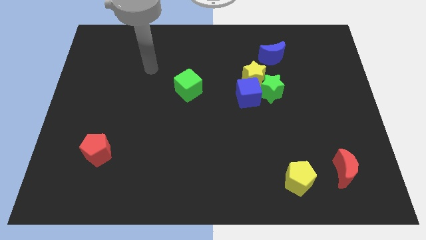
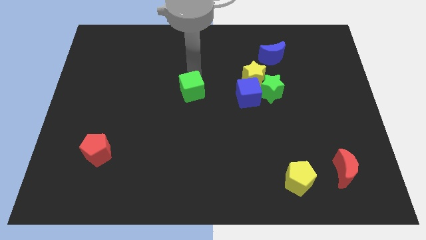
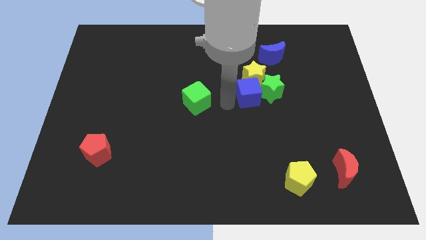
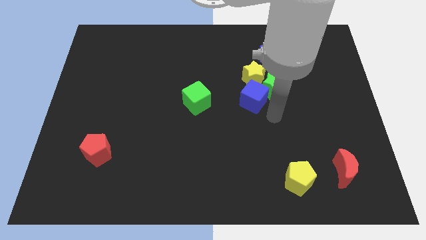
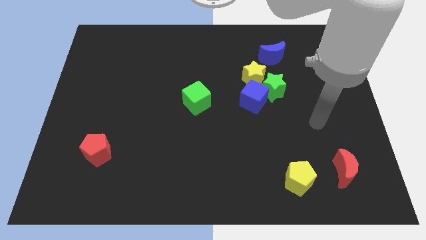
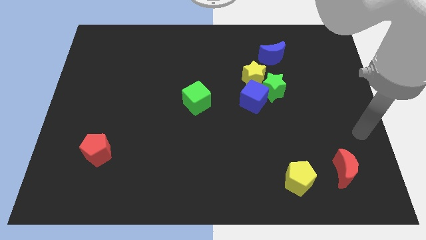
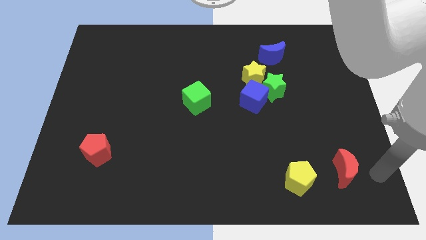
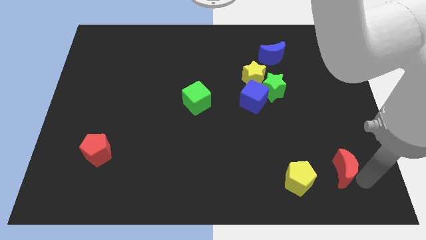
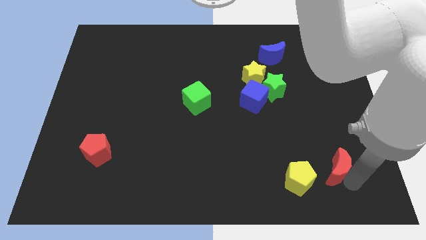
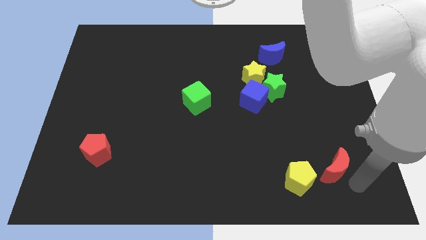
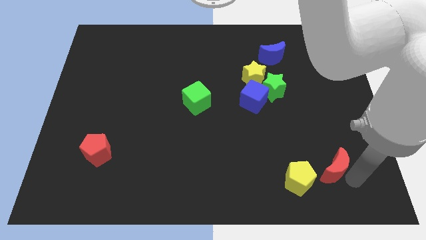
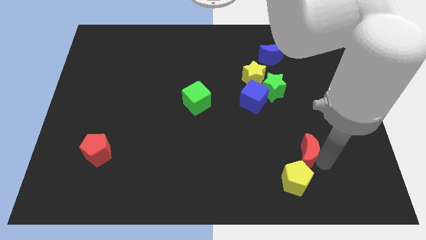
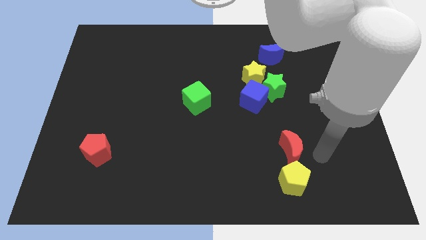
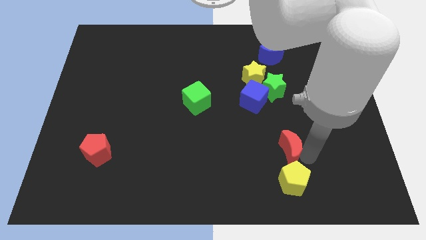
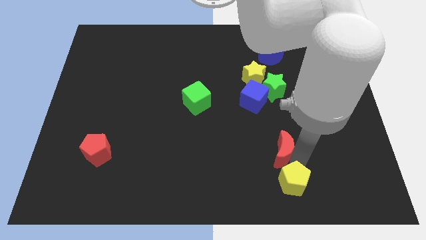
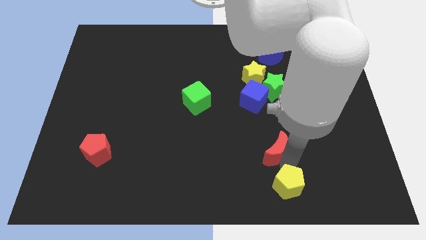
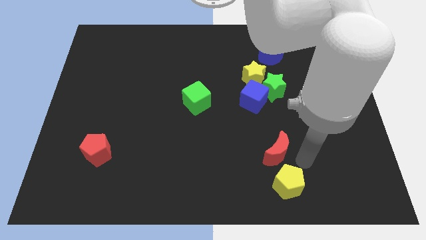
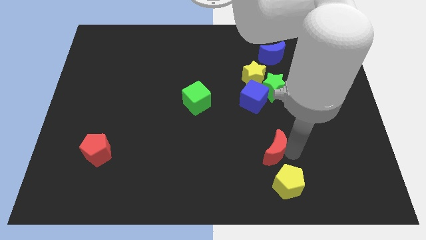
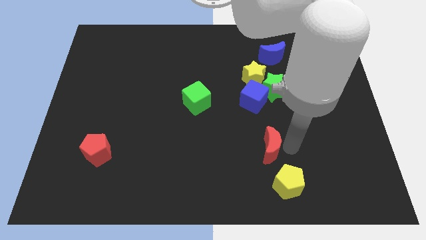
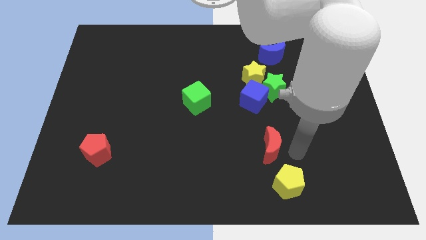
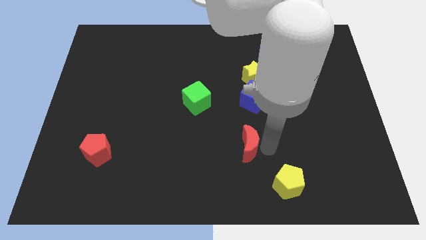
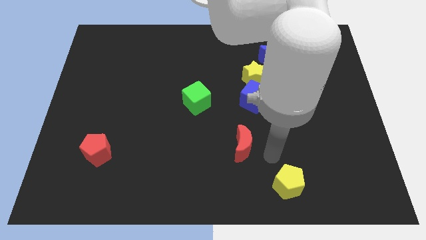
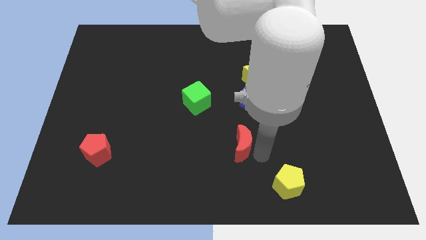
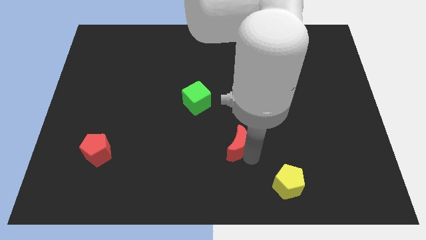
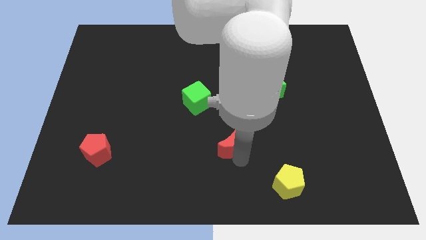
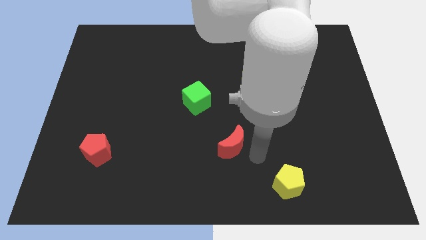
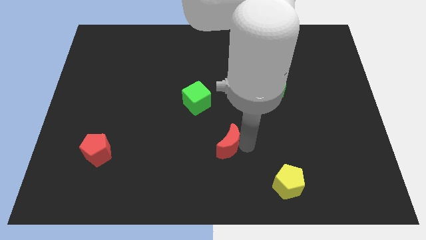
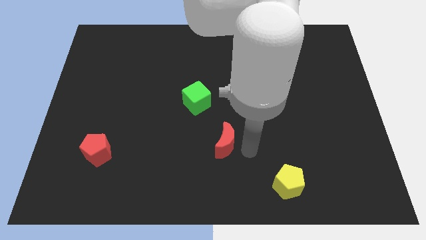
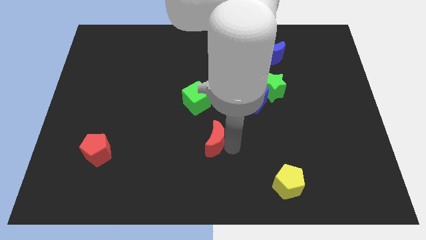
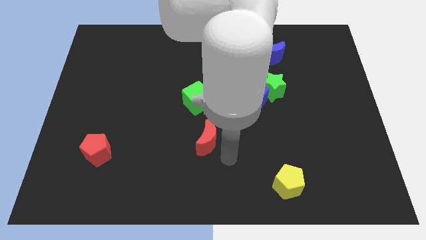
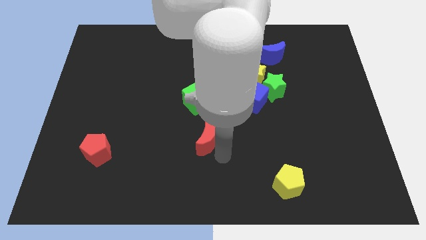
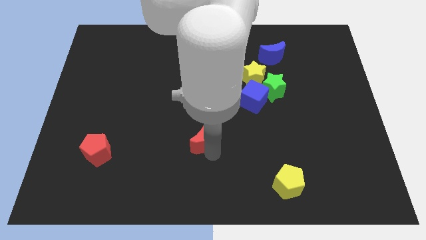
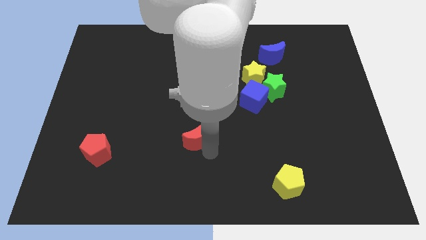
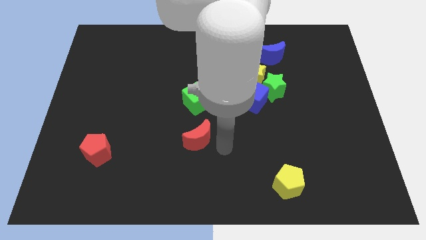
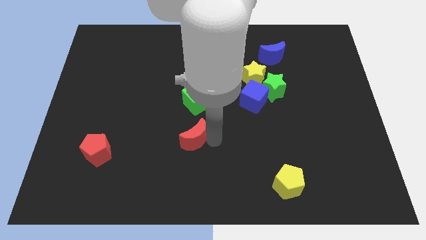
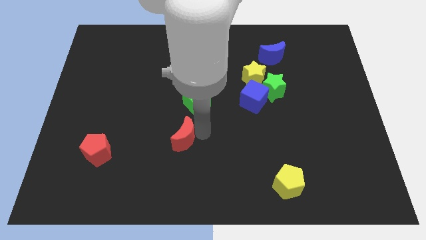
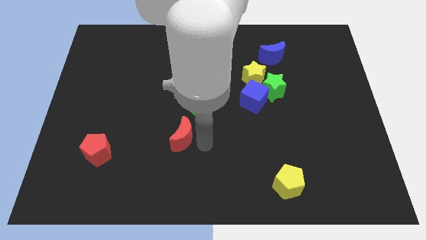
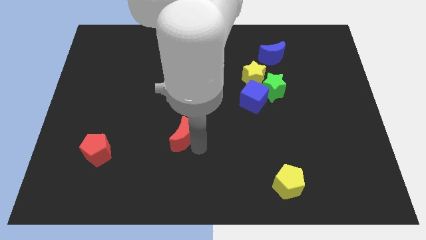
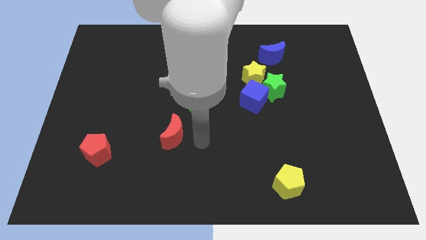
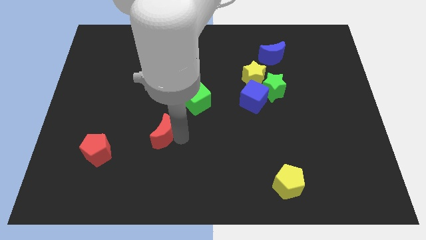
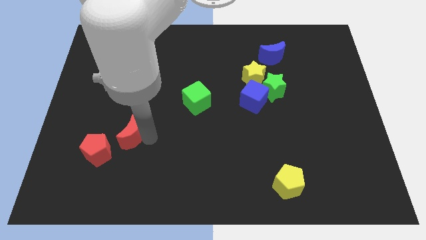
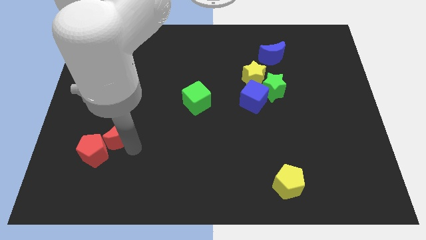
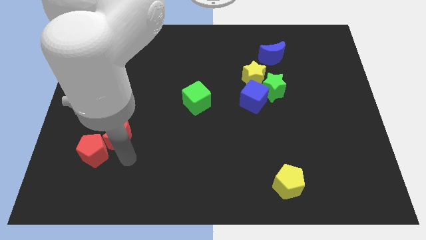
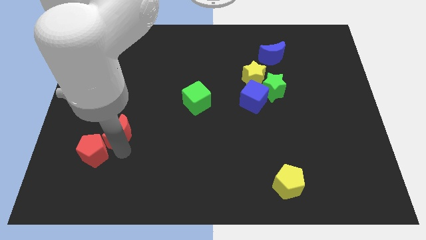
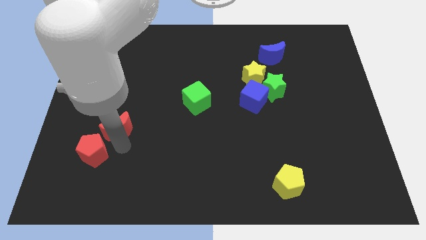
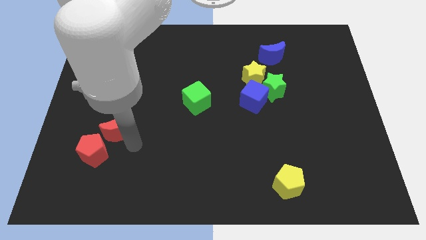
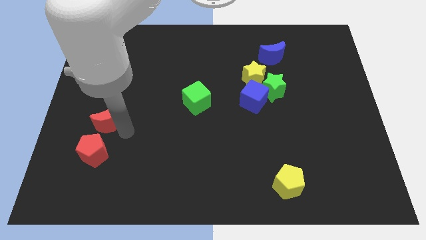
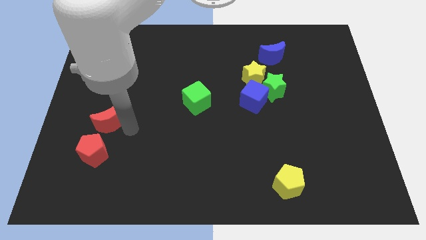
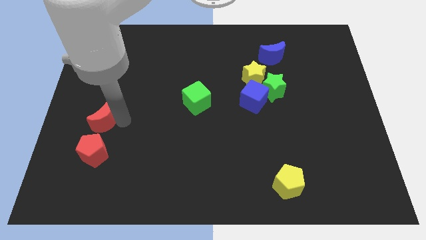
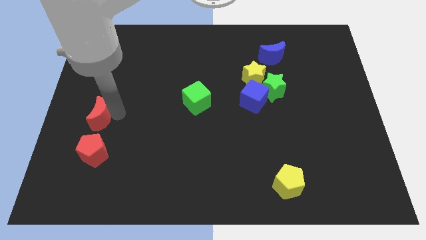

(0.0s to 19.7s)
push the red moon to the center left

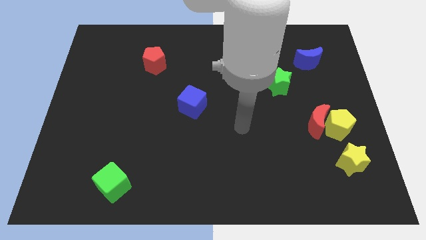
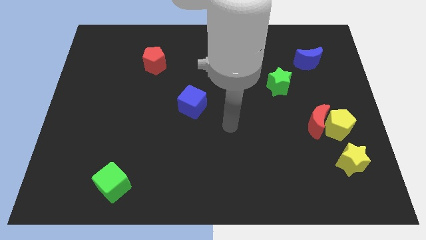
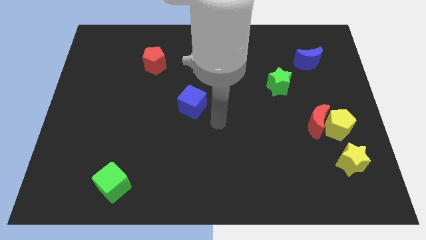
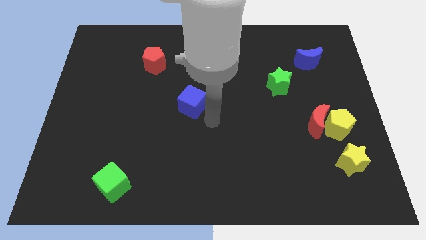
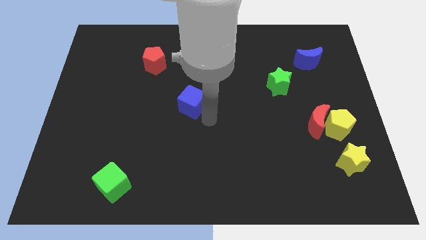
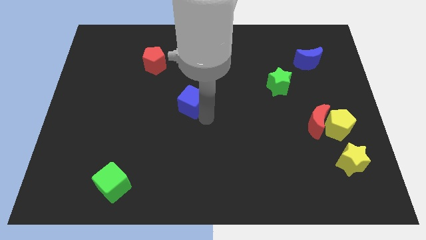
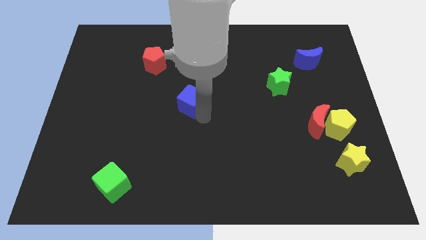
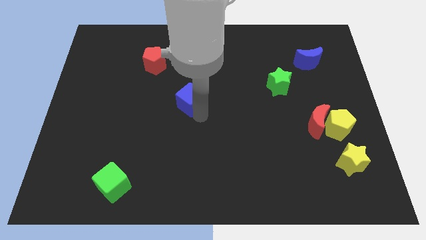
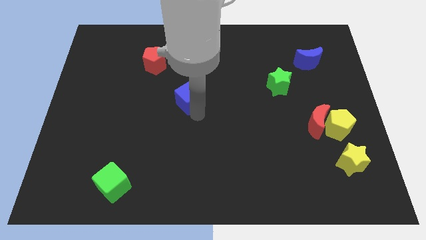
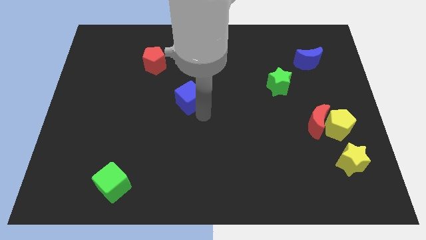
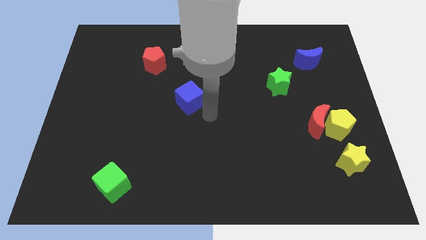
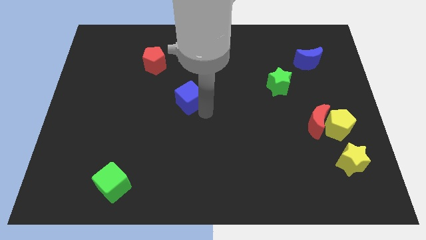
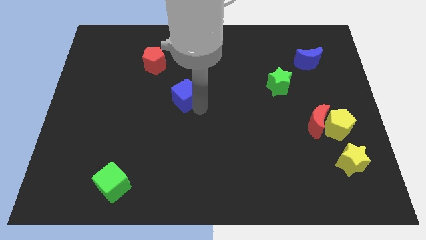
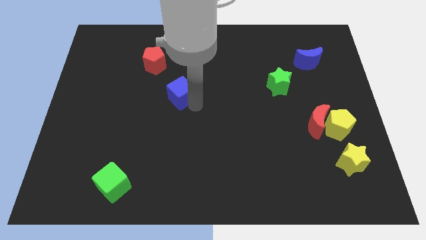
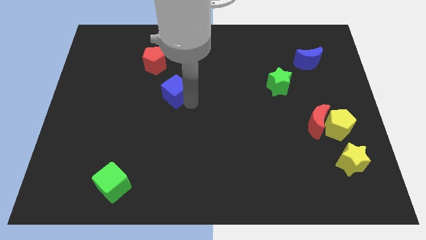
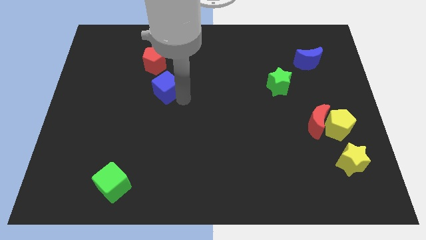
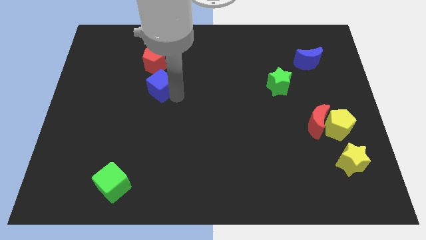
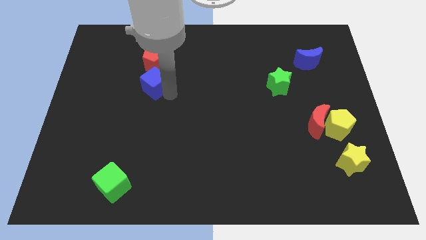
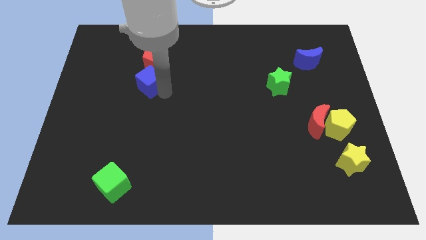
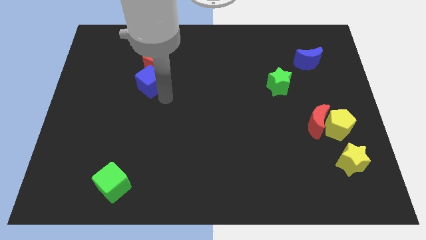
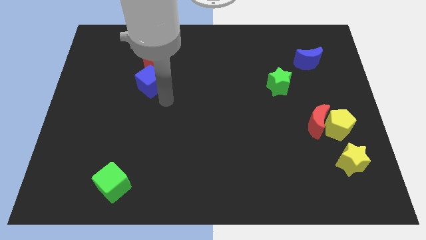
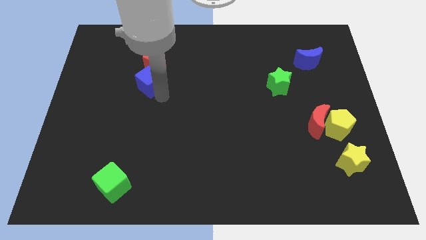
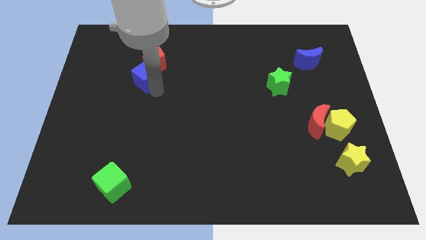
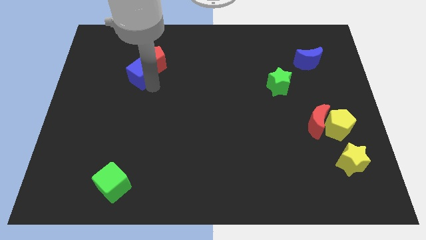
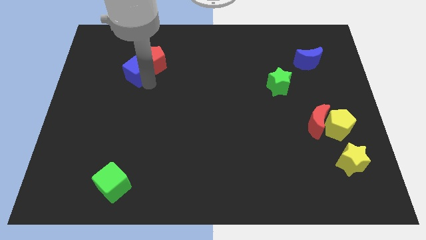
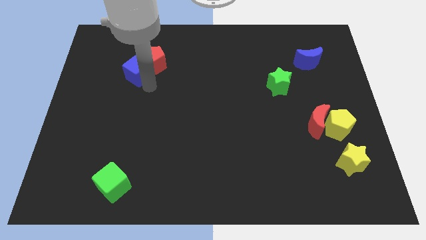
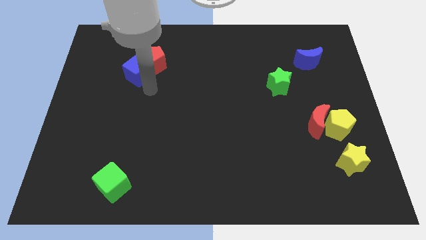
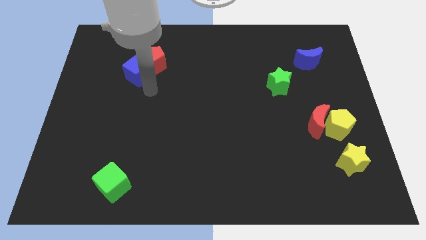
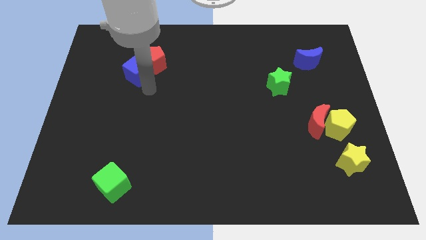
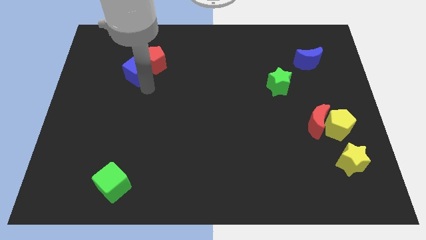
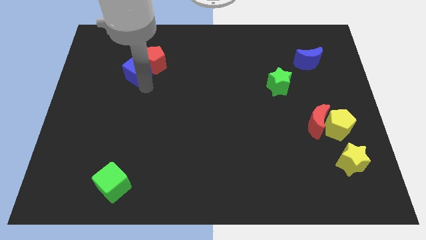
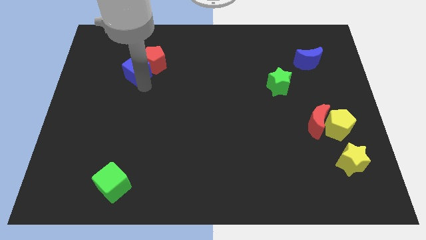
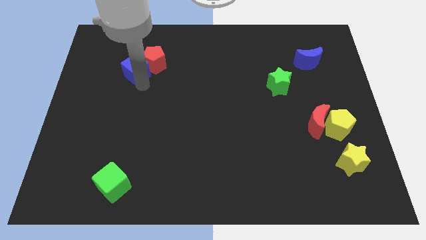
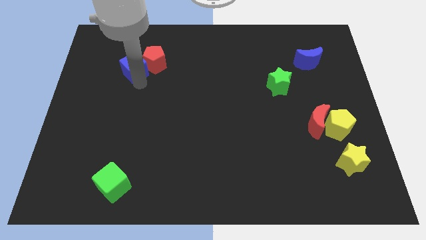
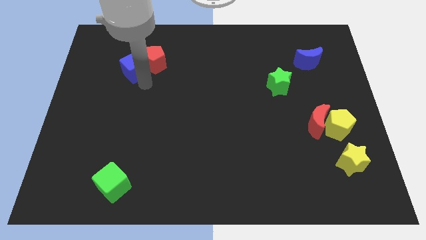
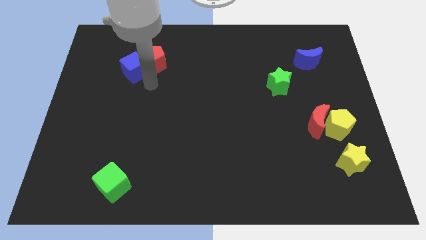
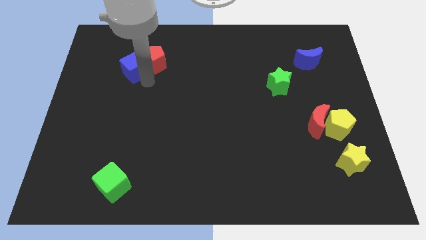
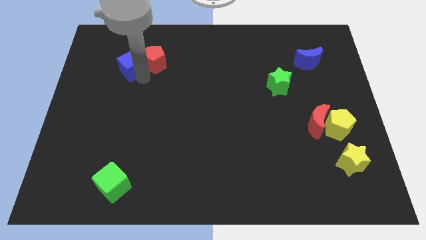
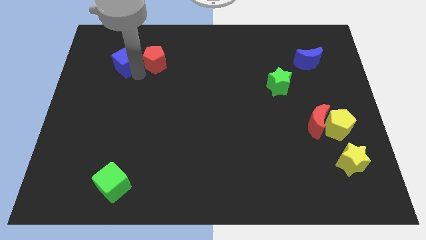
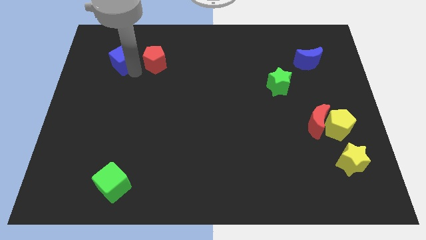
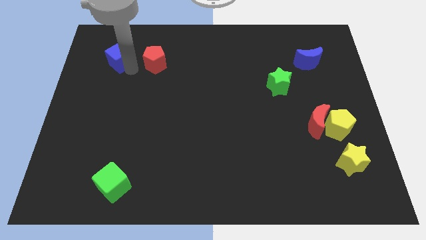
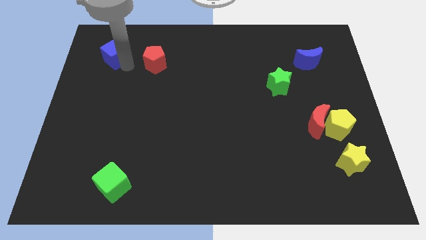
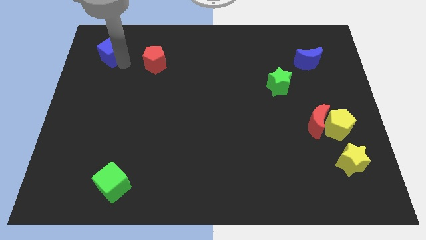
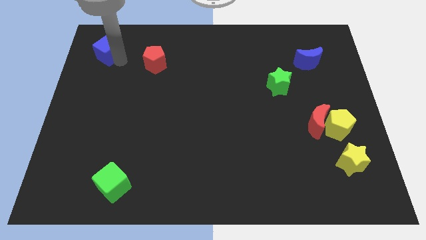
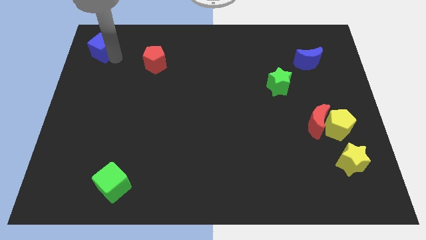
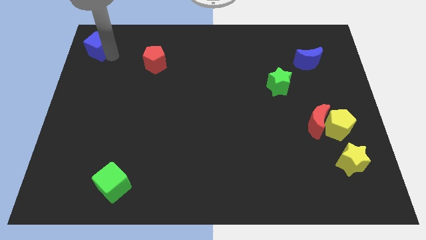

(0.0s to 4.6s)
slide the blue cube to the top left
